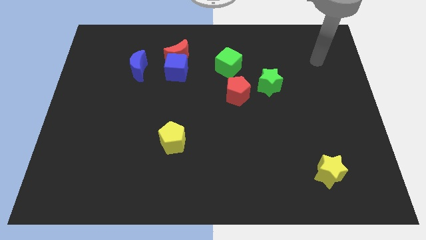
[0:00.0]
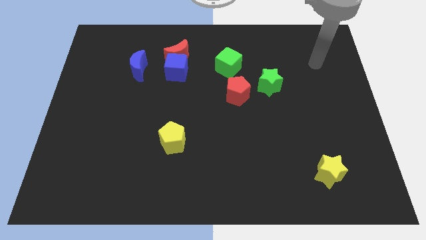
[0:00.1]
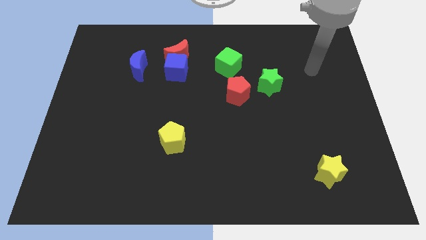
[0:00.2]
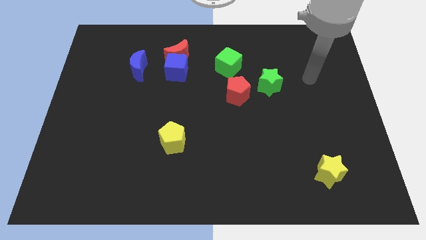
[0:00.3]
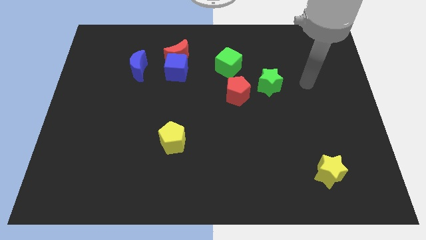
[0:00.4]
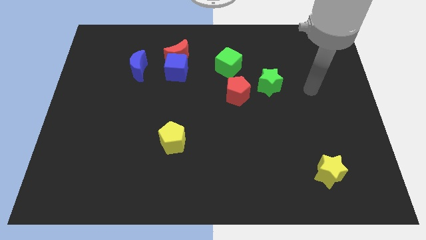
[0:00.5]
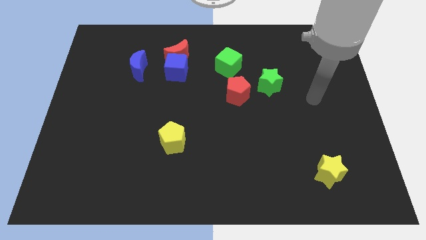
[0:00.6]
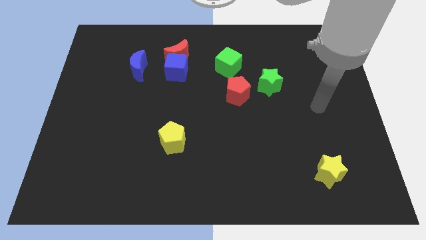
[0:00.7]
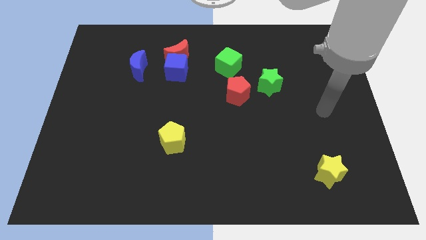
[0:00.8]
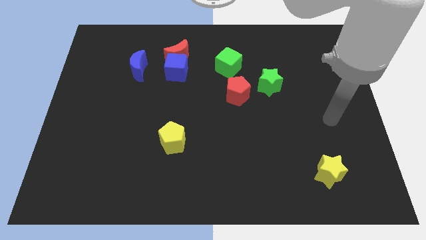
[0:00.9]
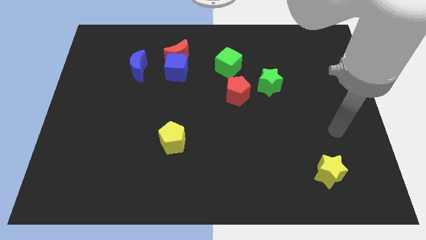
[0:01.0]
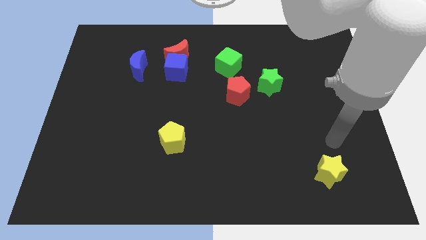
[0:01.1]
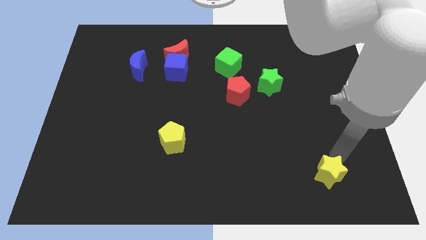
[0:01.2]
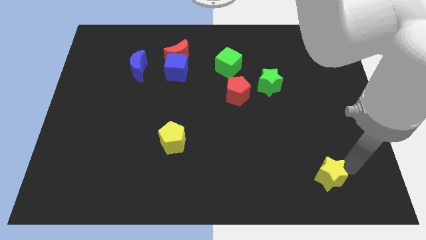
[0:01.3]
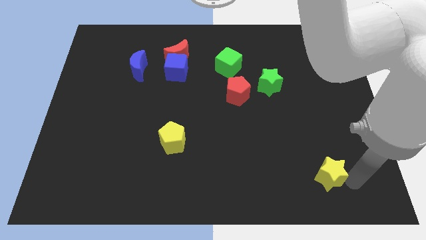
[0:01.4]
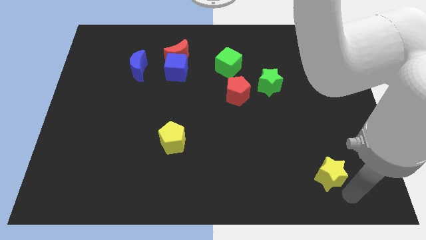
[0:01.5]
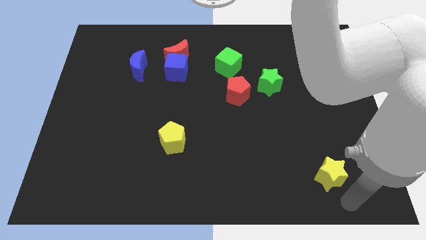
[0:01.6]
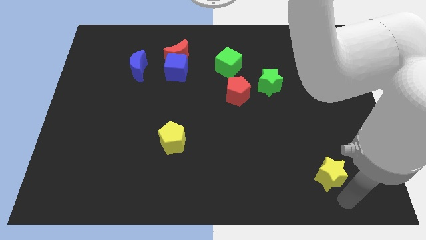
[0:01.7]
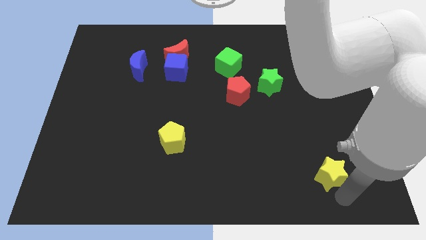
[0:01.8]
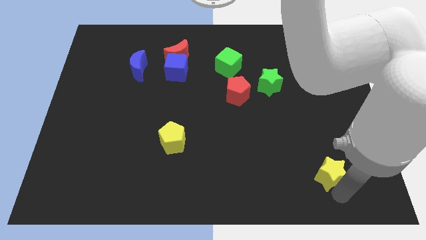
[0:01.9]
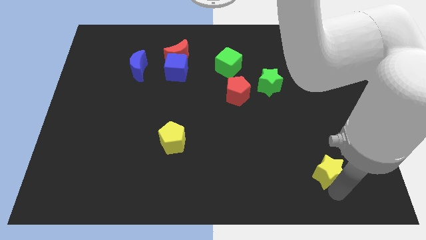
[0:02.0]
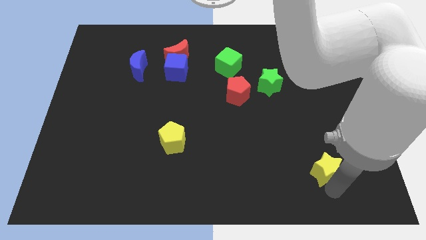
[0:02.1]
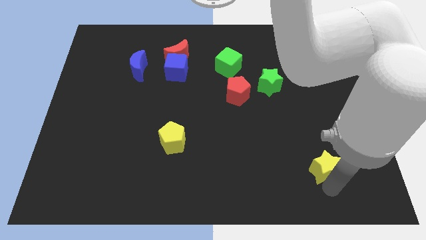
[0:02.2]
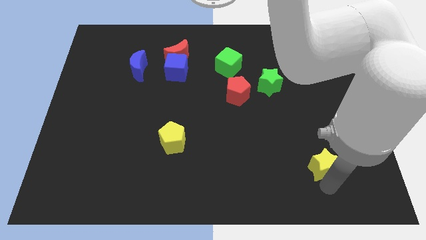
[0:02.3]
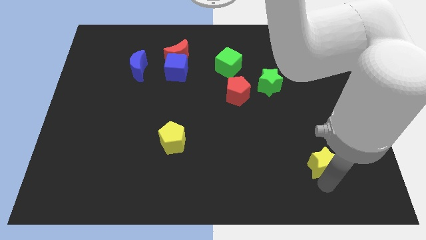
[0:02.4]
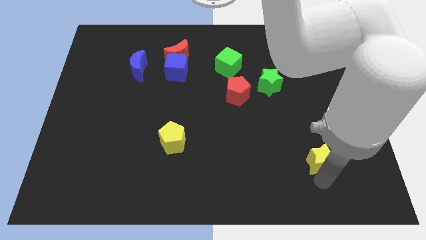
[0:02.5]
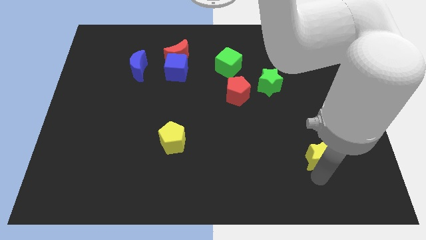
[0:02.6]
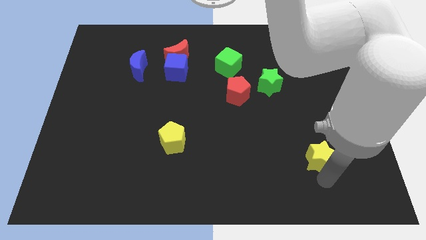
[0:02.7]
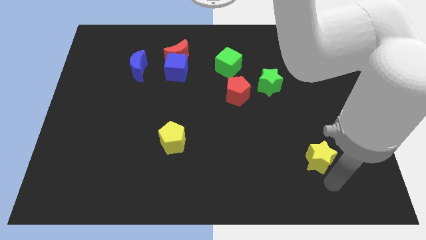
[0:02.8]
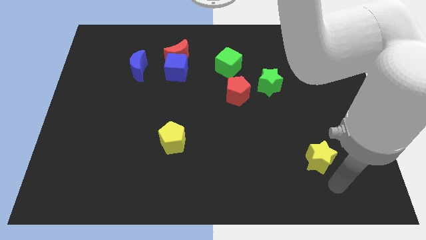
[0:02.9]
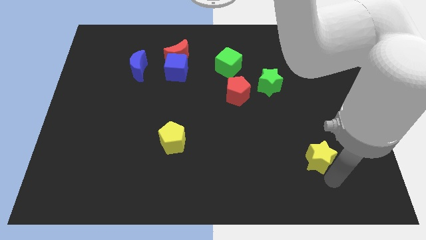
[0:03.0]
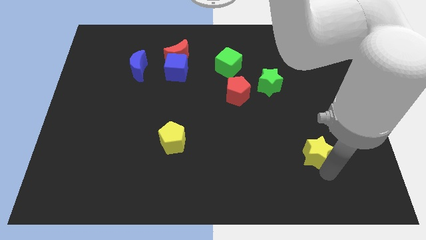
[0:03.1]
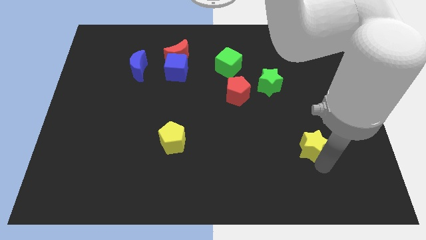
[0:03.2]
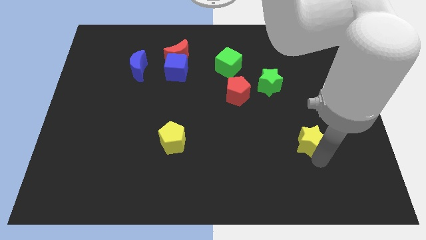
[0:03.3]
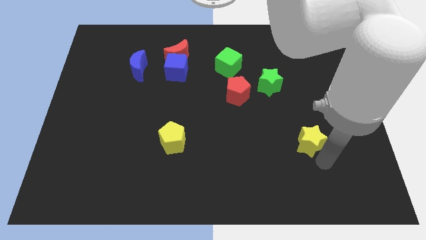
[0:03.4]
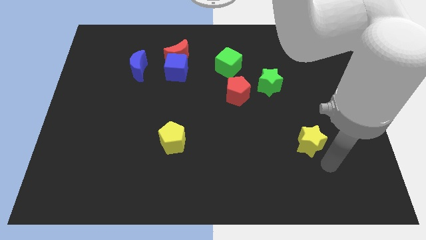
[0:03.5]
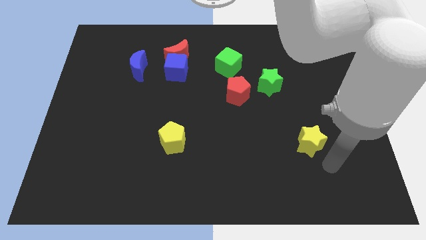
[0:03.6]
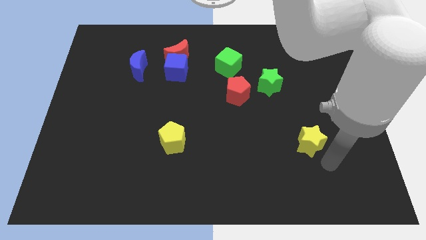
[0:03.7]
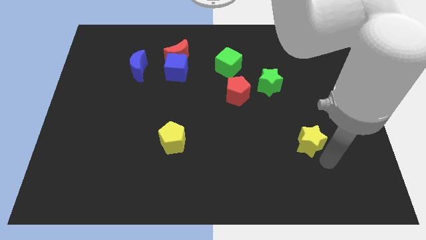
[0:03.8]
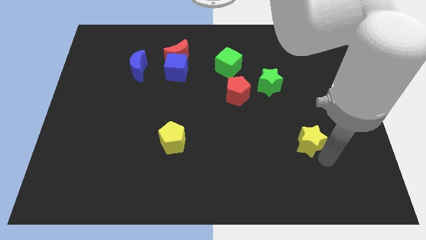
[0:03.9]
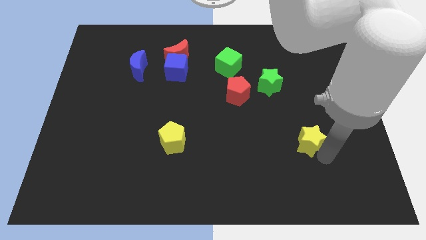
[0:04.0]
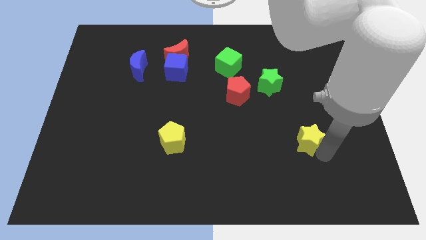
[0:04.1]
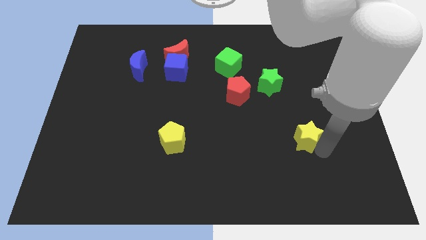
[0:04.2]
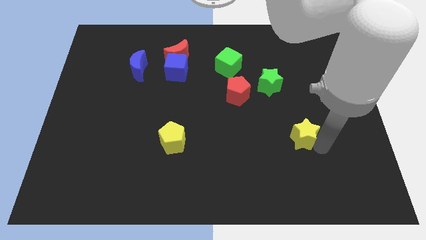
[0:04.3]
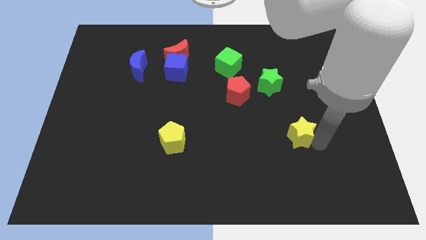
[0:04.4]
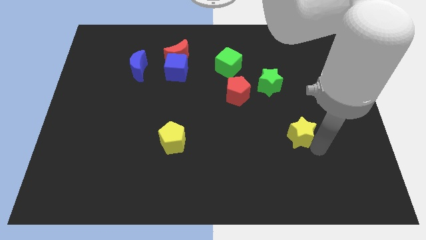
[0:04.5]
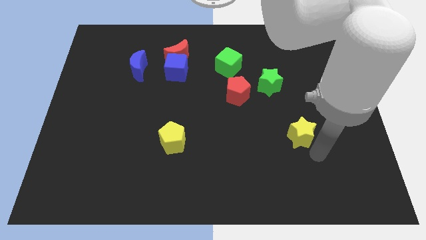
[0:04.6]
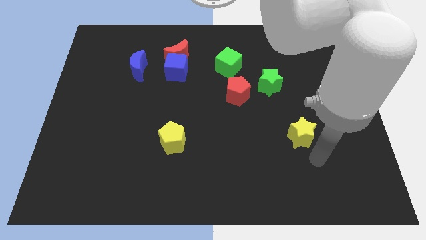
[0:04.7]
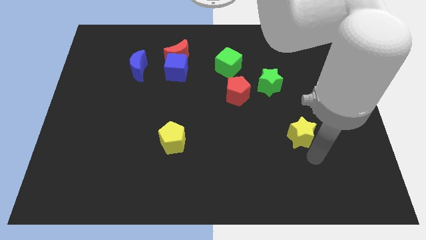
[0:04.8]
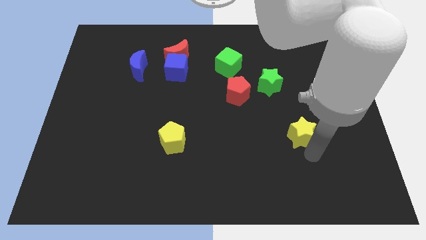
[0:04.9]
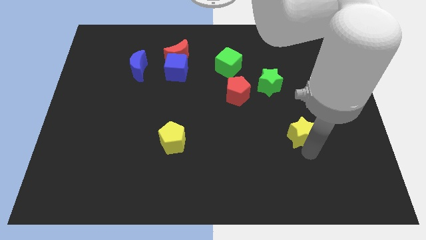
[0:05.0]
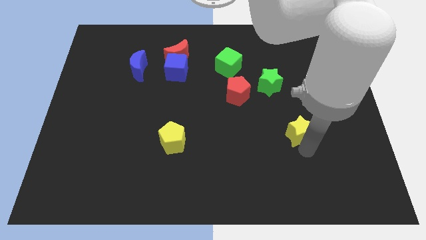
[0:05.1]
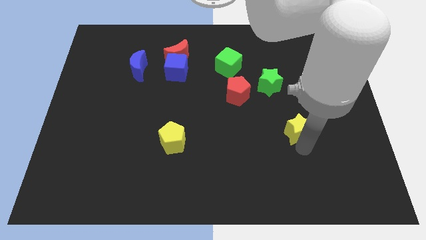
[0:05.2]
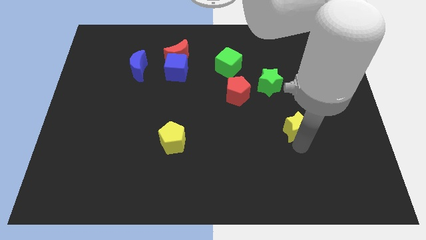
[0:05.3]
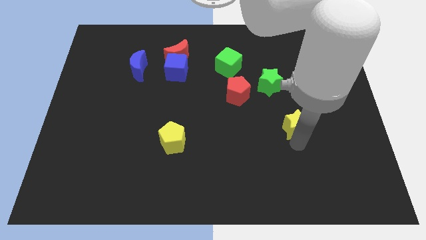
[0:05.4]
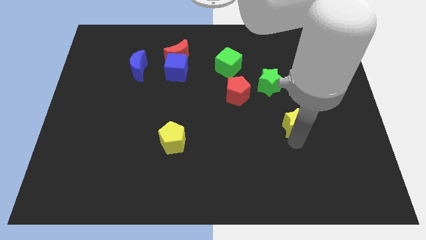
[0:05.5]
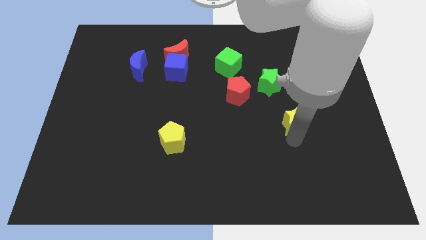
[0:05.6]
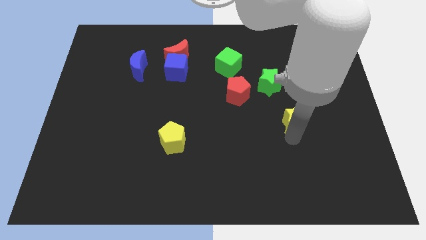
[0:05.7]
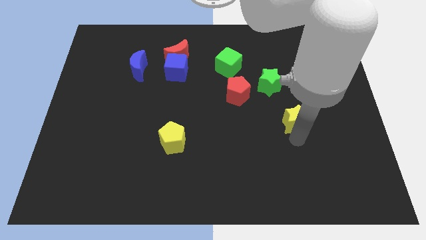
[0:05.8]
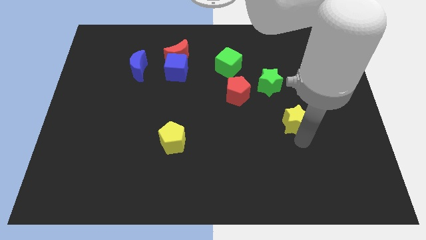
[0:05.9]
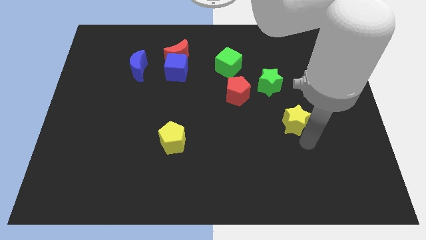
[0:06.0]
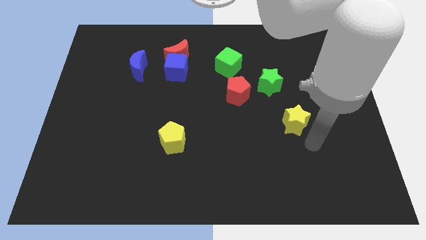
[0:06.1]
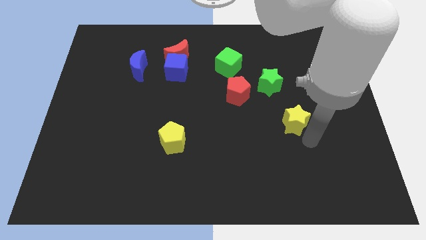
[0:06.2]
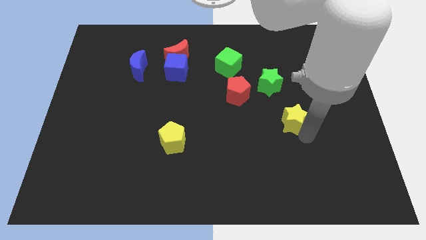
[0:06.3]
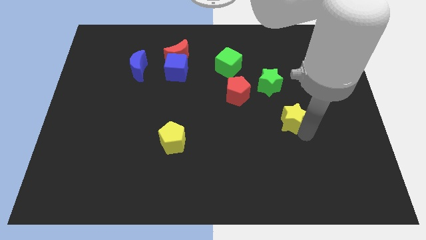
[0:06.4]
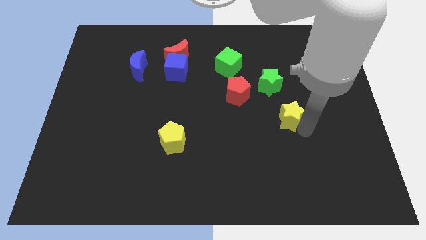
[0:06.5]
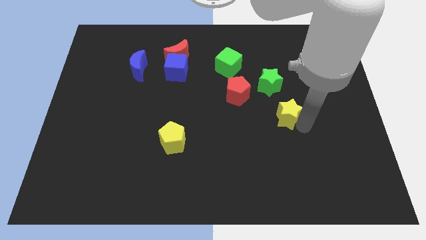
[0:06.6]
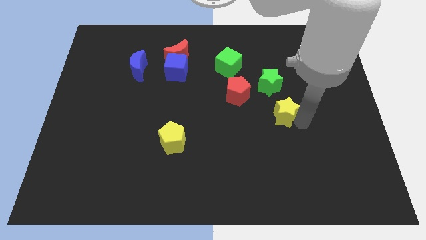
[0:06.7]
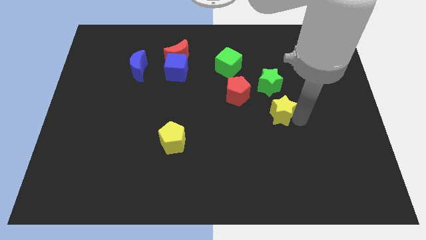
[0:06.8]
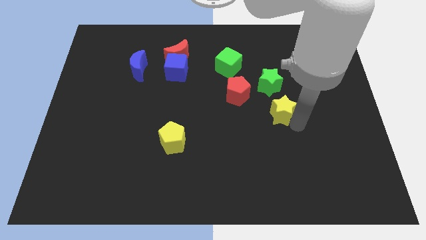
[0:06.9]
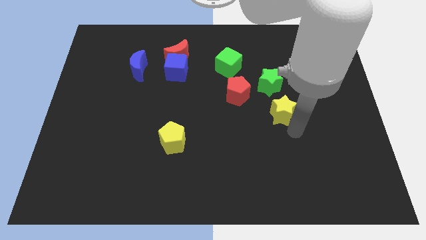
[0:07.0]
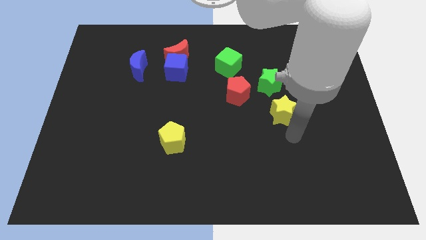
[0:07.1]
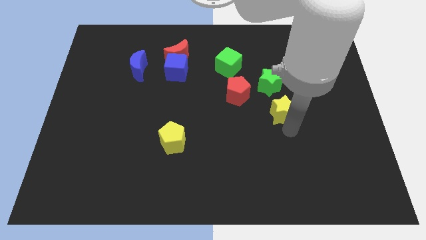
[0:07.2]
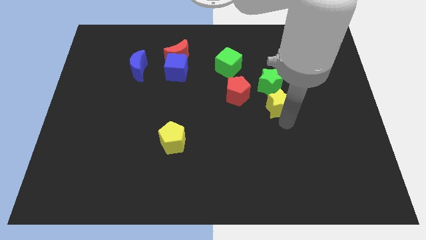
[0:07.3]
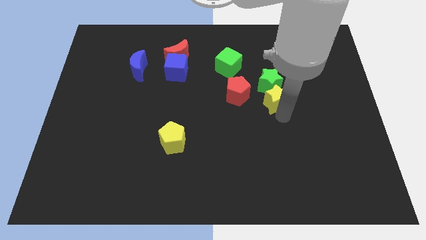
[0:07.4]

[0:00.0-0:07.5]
move the yellow star close to the green star
